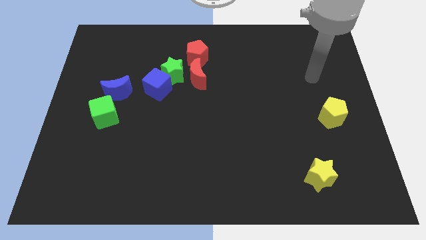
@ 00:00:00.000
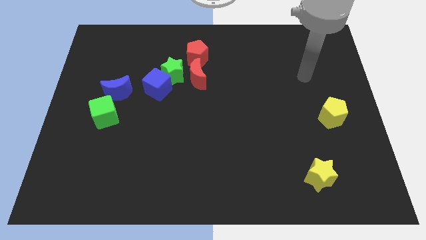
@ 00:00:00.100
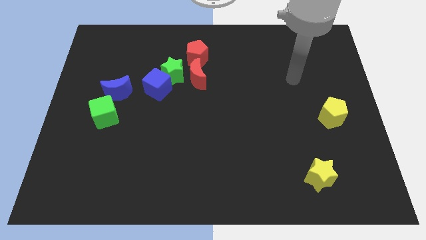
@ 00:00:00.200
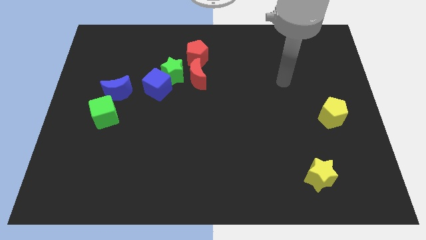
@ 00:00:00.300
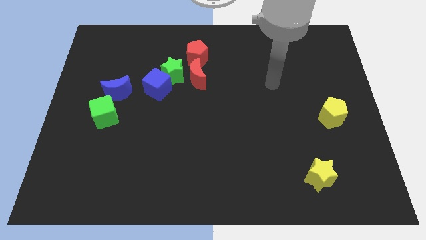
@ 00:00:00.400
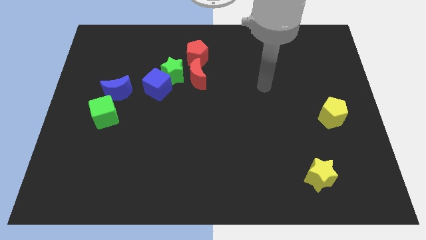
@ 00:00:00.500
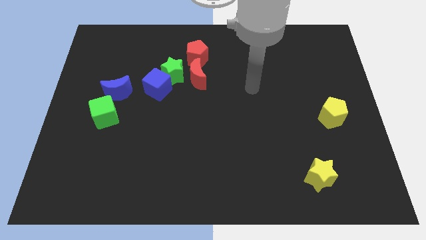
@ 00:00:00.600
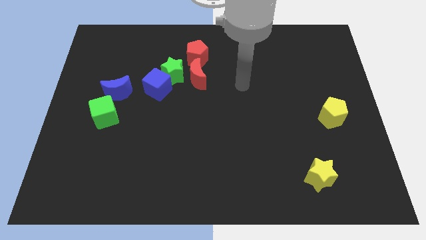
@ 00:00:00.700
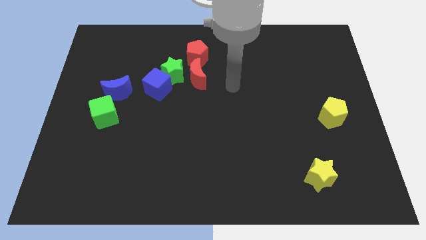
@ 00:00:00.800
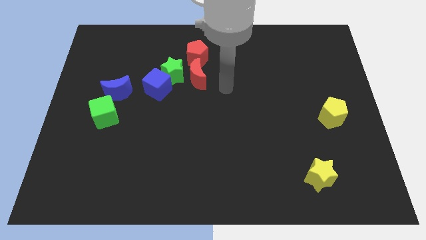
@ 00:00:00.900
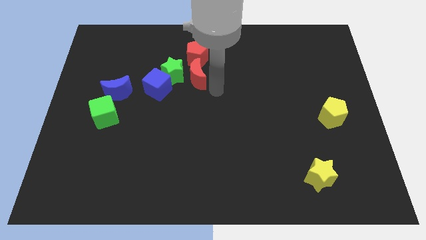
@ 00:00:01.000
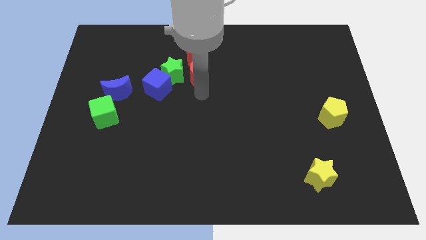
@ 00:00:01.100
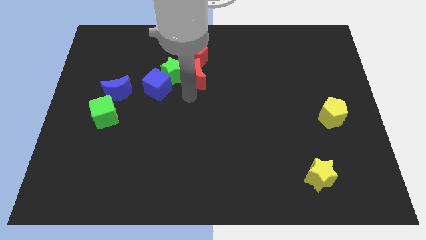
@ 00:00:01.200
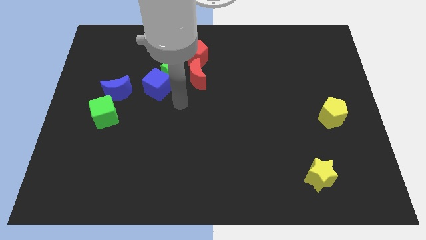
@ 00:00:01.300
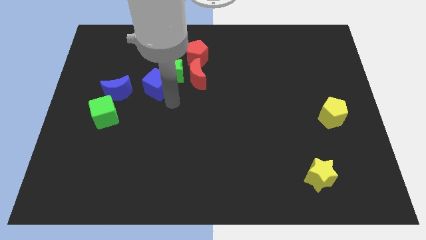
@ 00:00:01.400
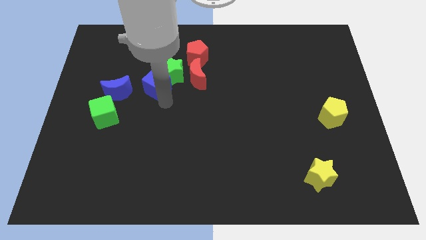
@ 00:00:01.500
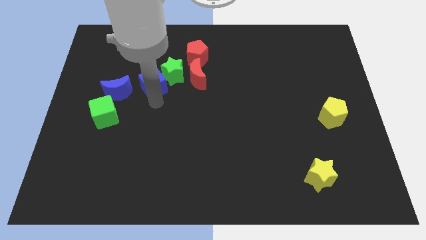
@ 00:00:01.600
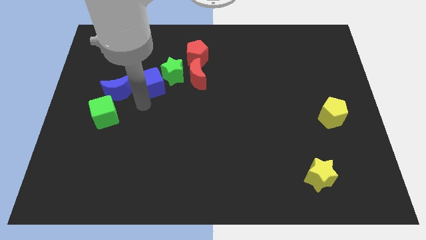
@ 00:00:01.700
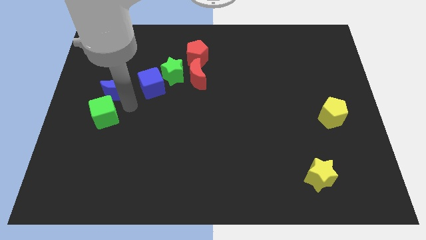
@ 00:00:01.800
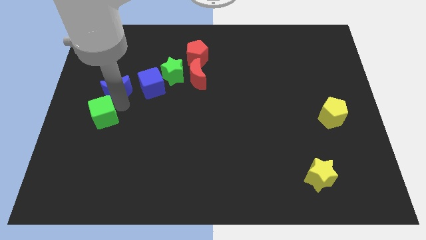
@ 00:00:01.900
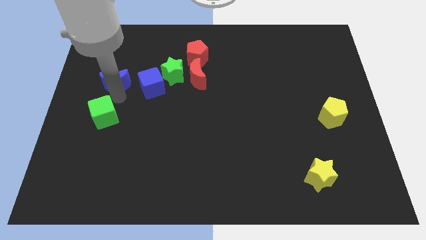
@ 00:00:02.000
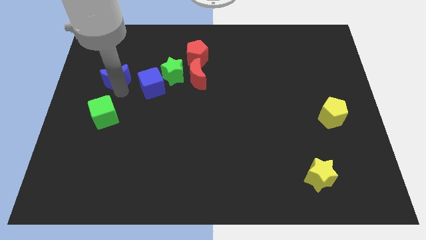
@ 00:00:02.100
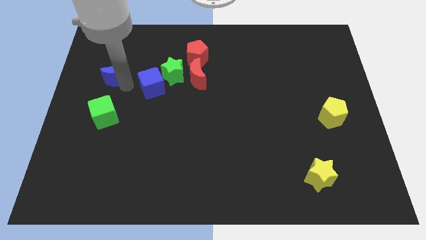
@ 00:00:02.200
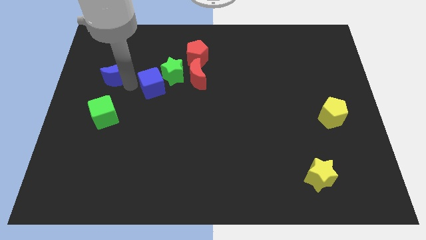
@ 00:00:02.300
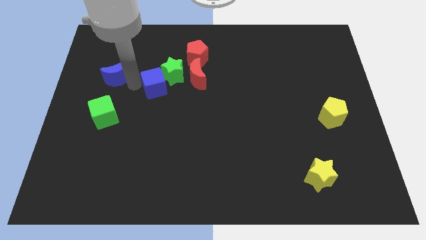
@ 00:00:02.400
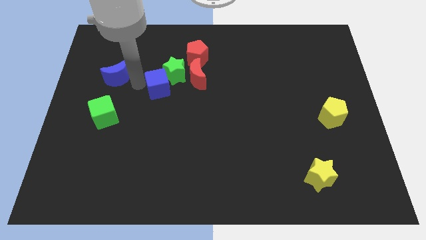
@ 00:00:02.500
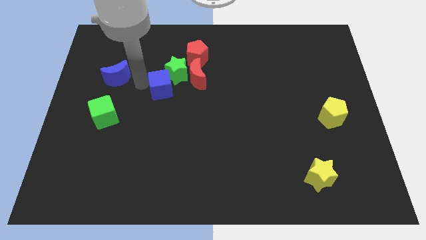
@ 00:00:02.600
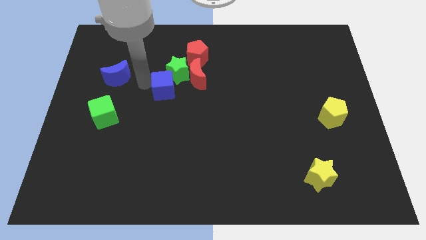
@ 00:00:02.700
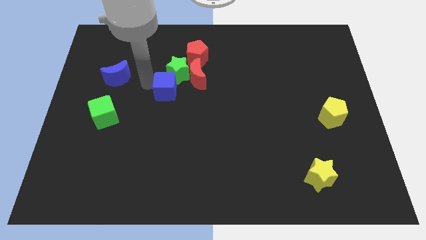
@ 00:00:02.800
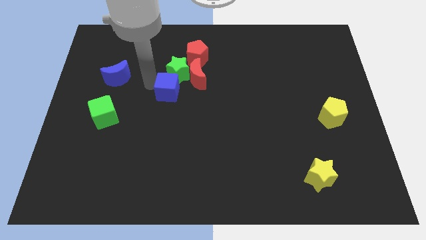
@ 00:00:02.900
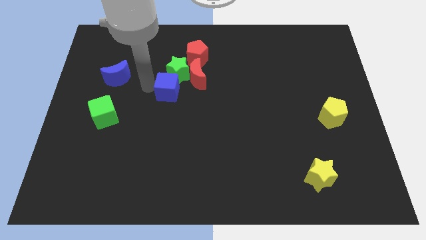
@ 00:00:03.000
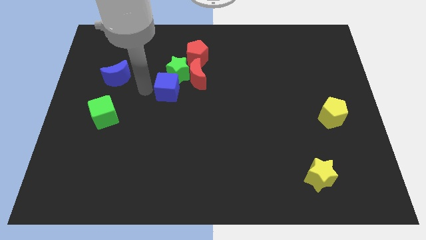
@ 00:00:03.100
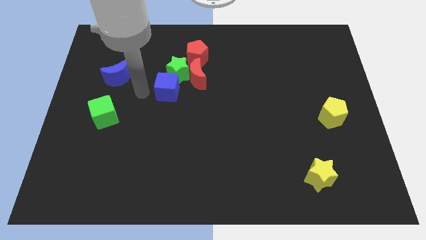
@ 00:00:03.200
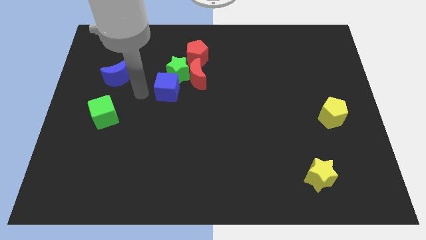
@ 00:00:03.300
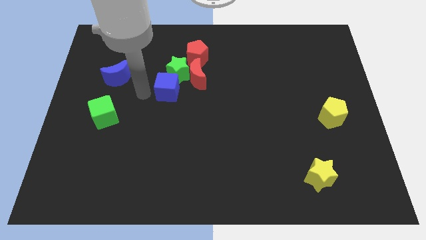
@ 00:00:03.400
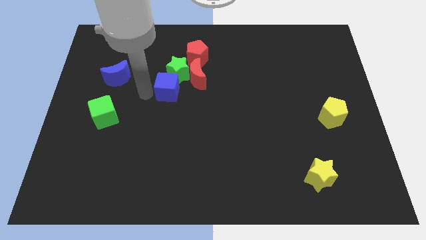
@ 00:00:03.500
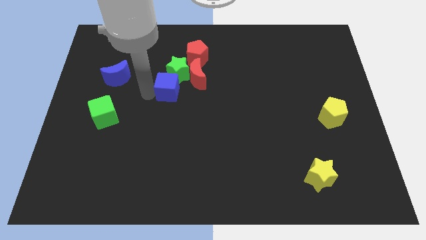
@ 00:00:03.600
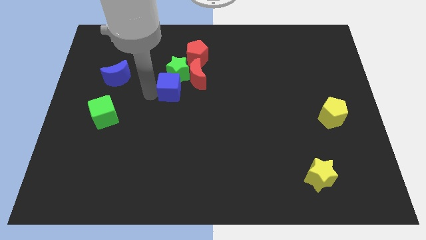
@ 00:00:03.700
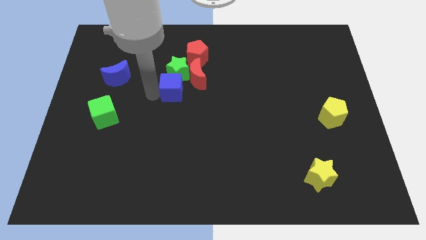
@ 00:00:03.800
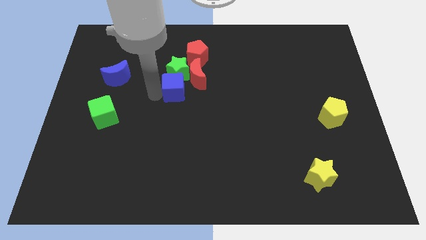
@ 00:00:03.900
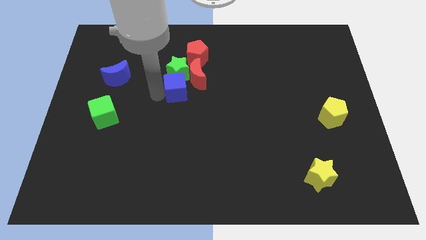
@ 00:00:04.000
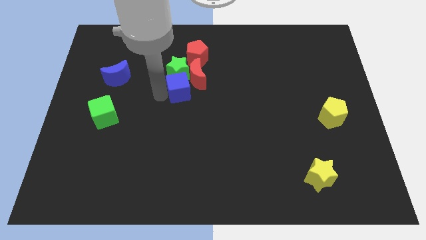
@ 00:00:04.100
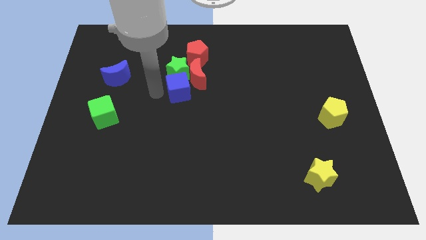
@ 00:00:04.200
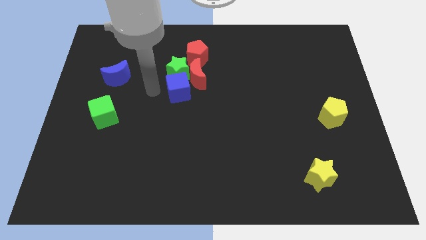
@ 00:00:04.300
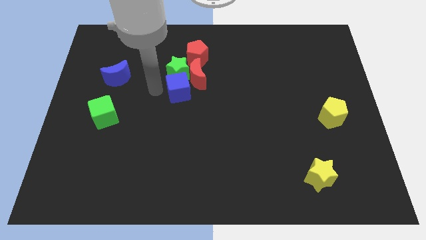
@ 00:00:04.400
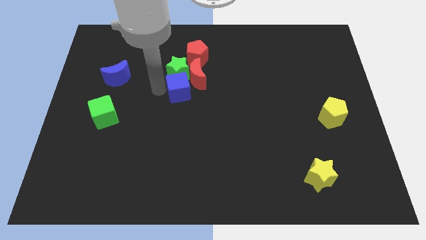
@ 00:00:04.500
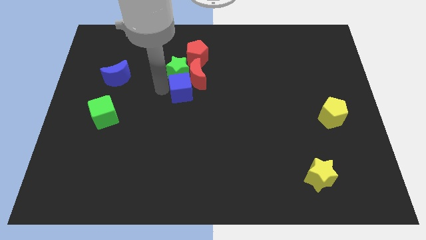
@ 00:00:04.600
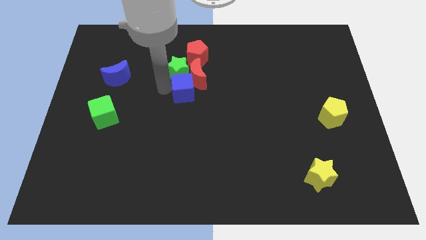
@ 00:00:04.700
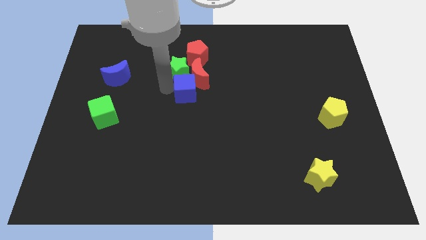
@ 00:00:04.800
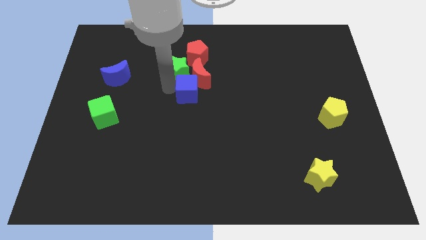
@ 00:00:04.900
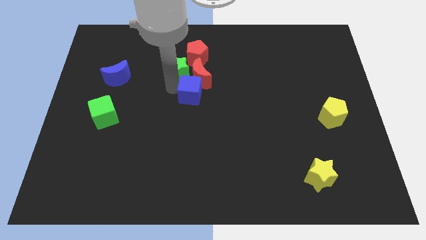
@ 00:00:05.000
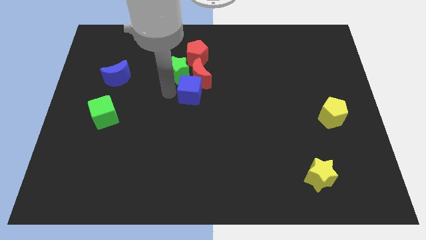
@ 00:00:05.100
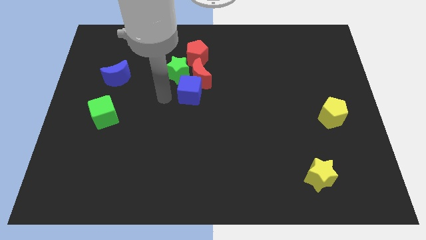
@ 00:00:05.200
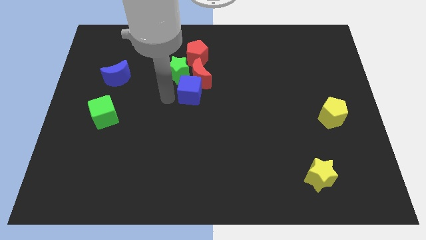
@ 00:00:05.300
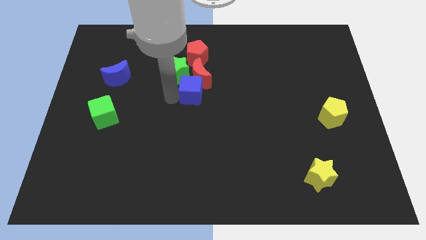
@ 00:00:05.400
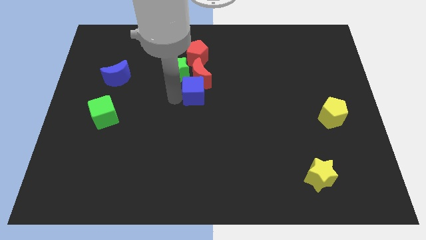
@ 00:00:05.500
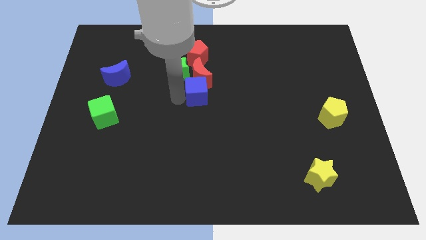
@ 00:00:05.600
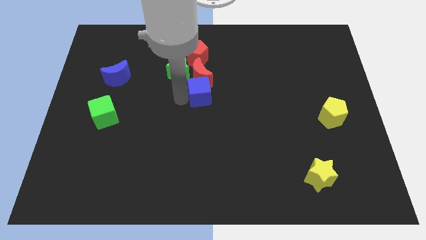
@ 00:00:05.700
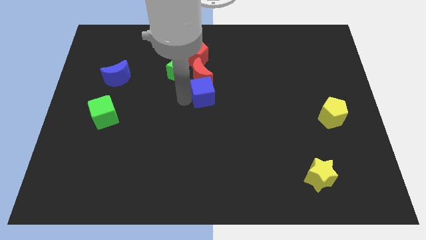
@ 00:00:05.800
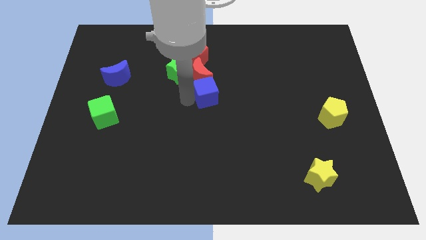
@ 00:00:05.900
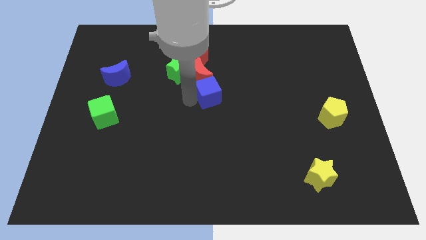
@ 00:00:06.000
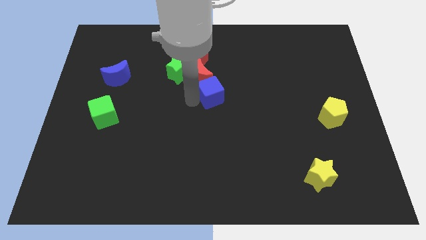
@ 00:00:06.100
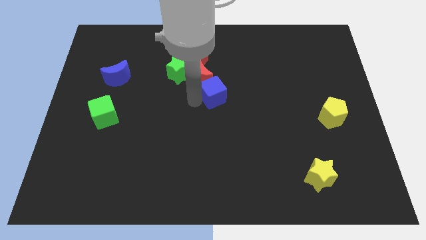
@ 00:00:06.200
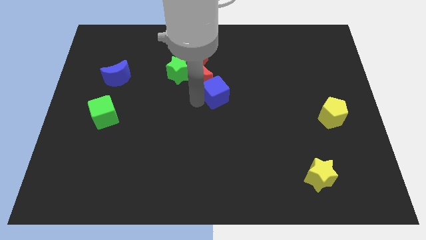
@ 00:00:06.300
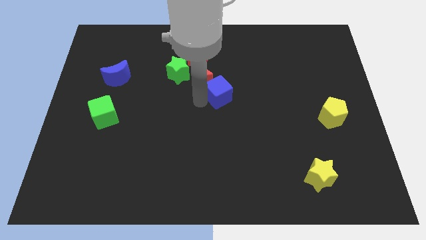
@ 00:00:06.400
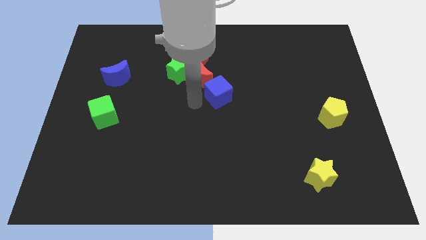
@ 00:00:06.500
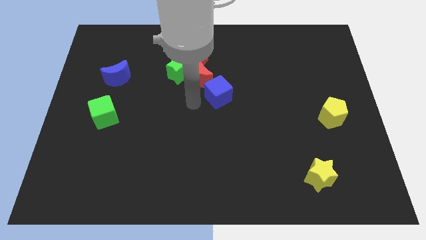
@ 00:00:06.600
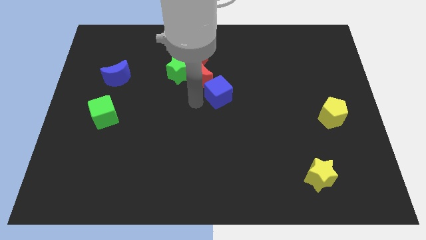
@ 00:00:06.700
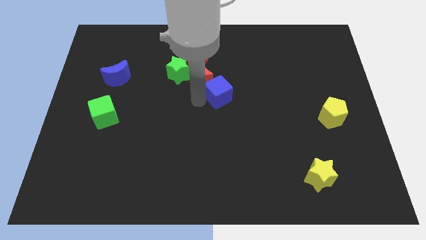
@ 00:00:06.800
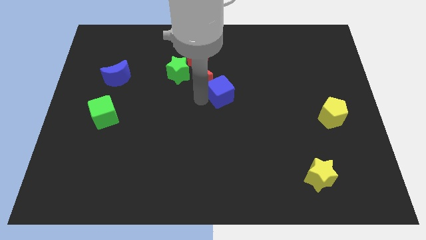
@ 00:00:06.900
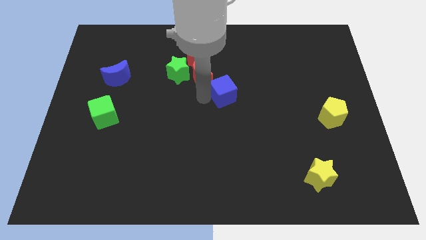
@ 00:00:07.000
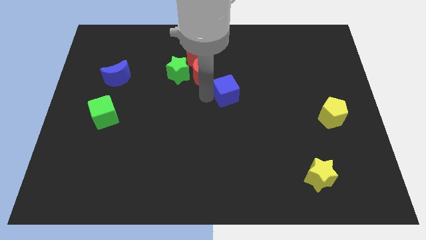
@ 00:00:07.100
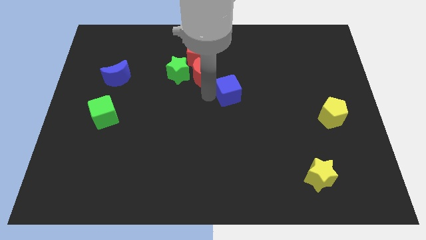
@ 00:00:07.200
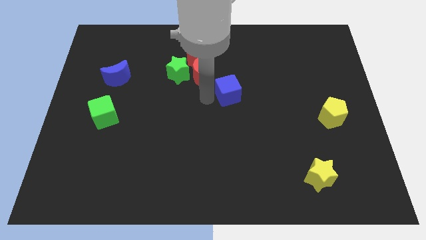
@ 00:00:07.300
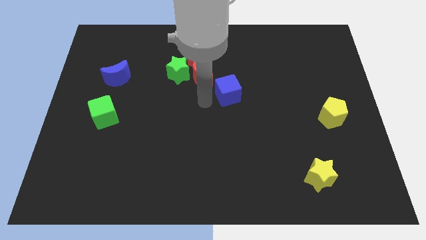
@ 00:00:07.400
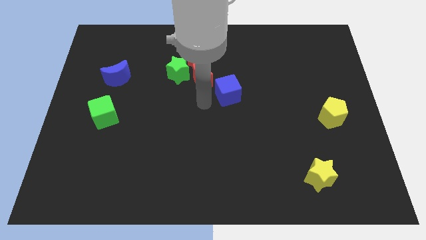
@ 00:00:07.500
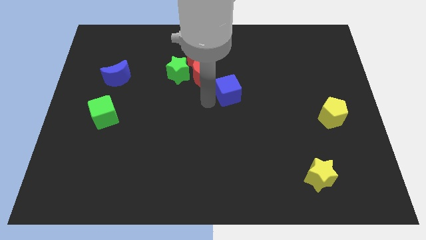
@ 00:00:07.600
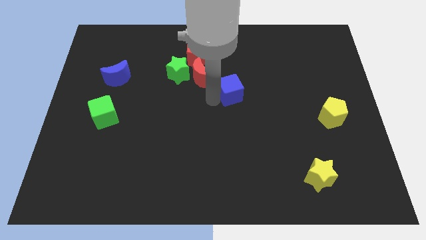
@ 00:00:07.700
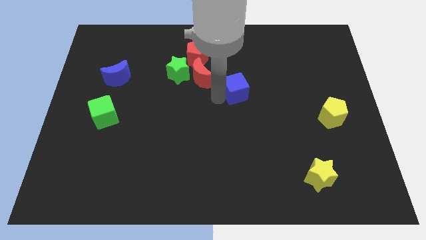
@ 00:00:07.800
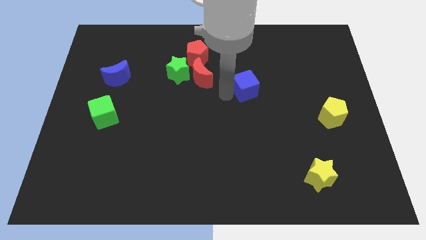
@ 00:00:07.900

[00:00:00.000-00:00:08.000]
push the blue cube right
